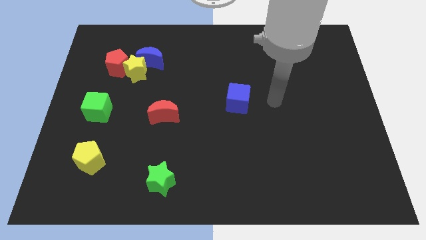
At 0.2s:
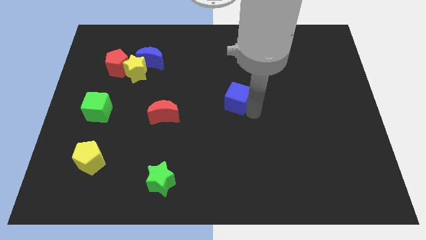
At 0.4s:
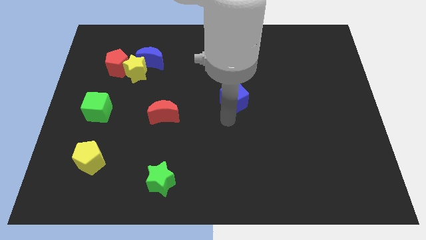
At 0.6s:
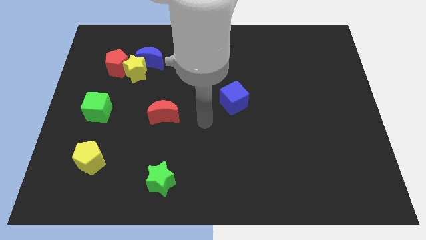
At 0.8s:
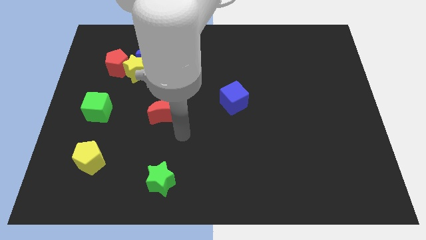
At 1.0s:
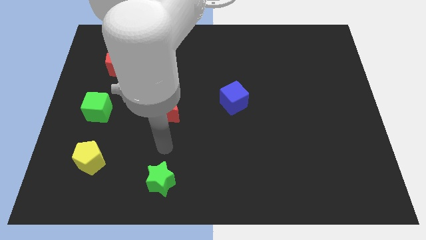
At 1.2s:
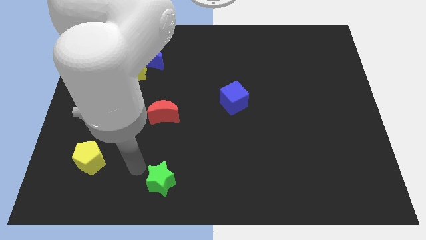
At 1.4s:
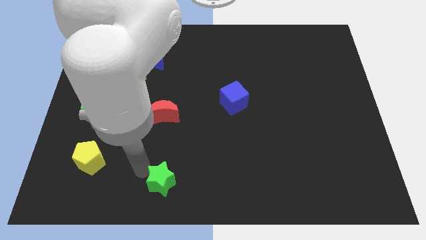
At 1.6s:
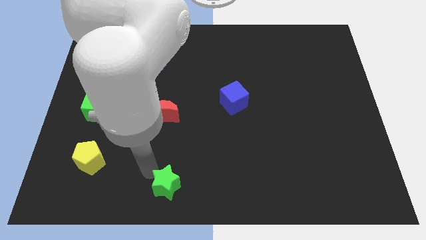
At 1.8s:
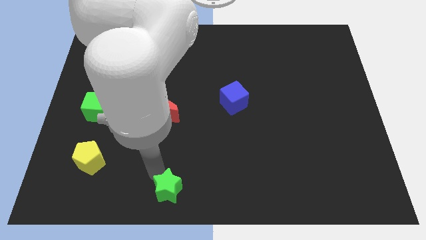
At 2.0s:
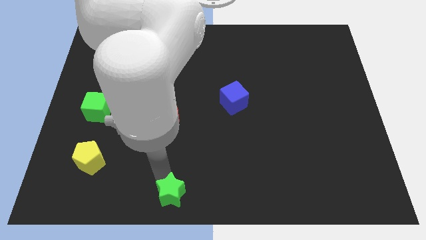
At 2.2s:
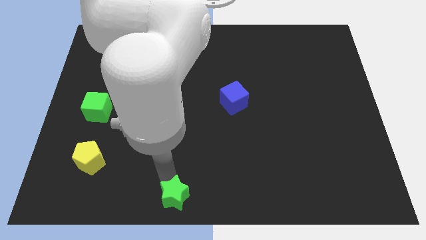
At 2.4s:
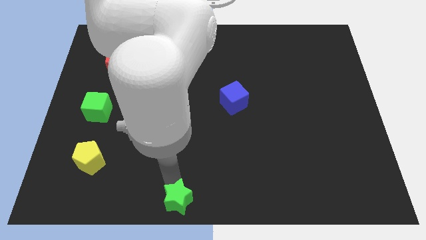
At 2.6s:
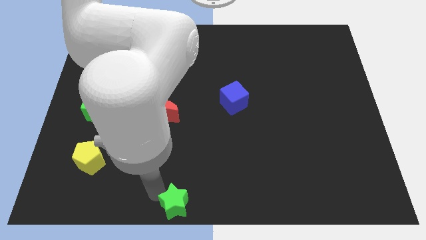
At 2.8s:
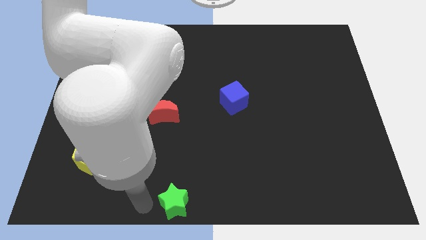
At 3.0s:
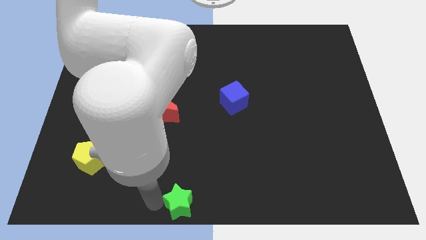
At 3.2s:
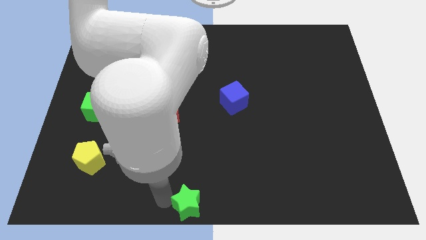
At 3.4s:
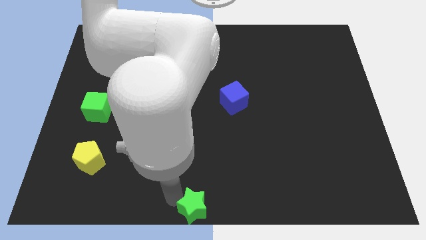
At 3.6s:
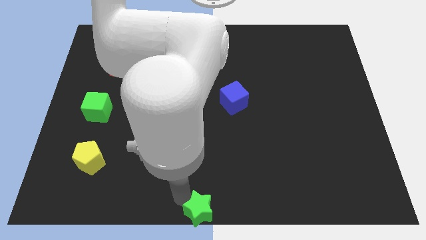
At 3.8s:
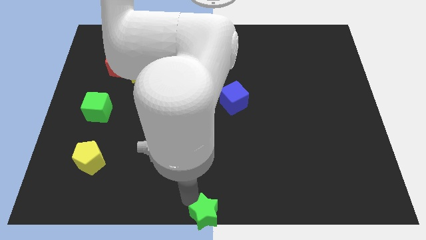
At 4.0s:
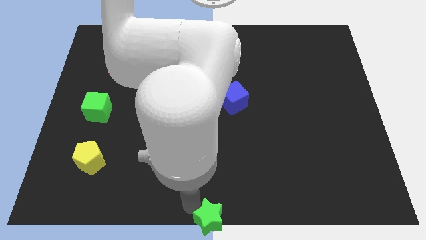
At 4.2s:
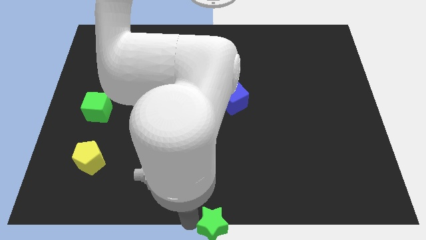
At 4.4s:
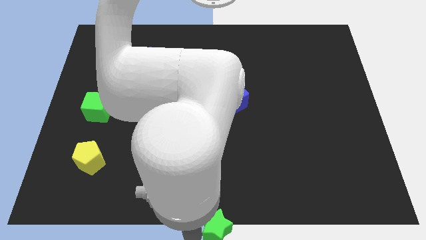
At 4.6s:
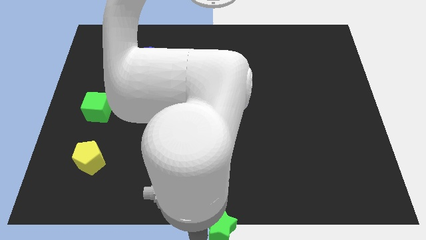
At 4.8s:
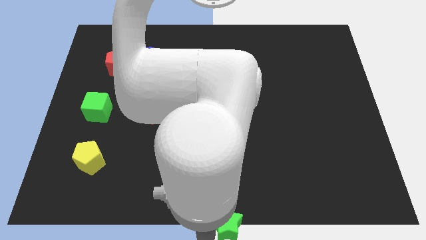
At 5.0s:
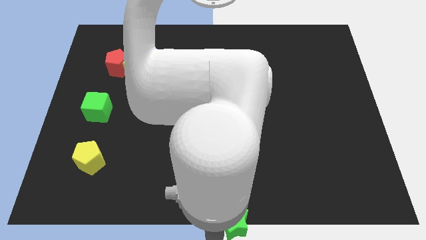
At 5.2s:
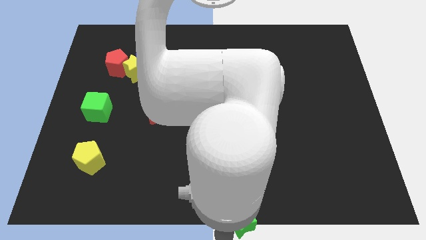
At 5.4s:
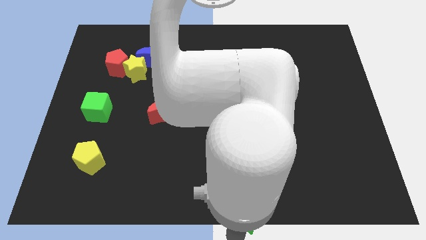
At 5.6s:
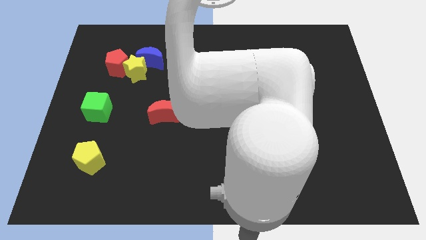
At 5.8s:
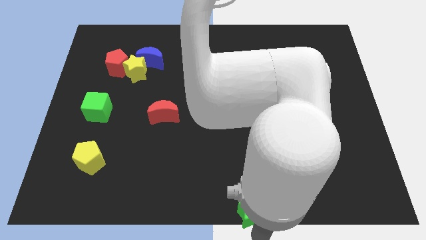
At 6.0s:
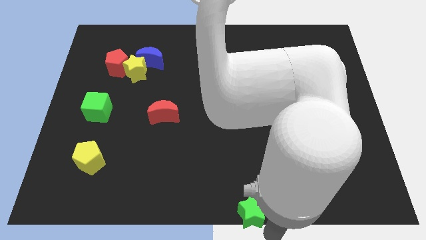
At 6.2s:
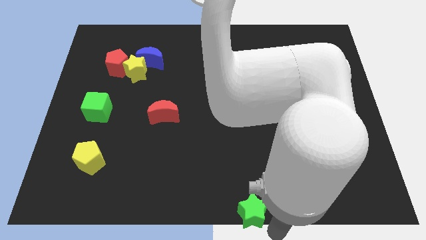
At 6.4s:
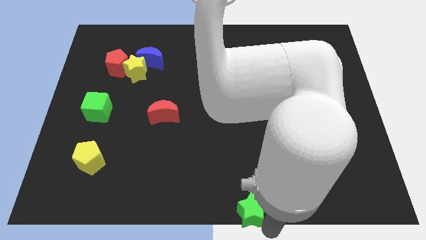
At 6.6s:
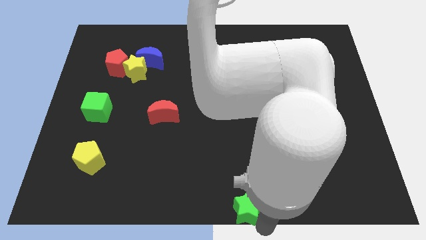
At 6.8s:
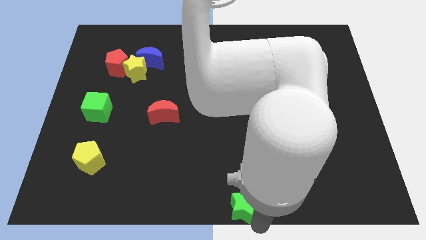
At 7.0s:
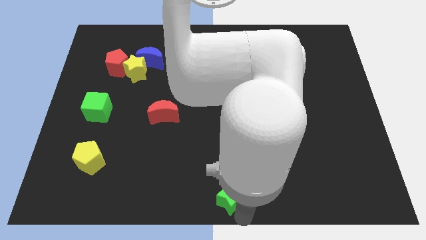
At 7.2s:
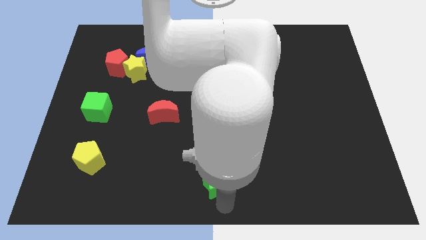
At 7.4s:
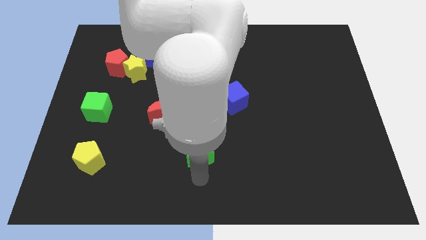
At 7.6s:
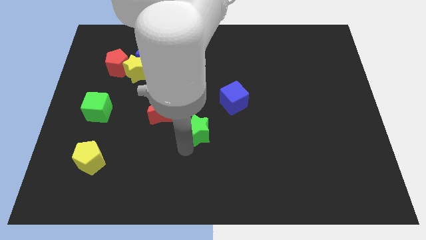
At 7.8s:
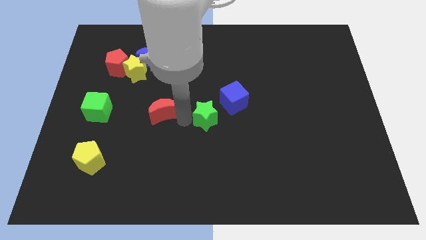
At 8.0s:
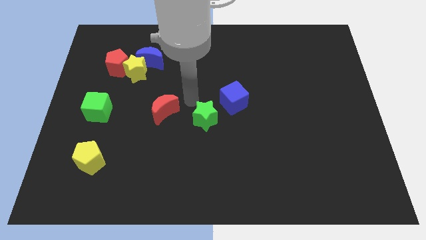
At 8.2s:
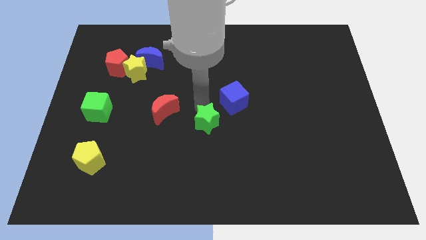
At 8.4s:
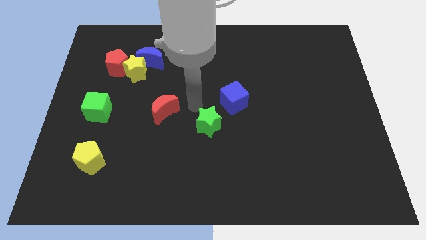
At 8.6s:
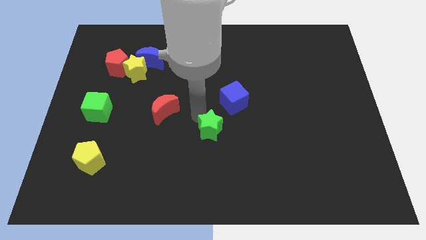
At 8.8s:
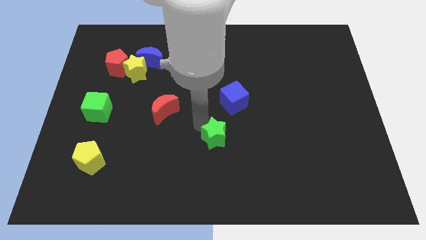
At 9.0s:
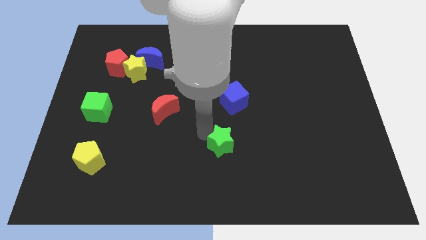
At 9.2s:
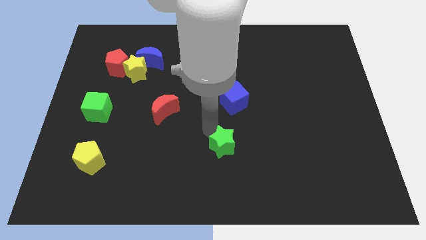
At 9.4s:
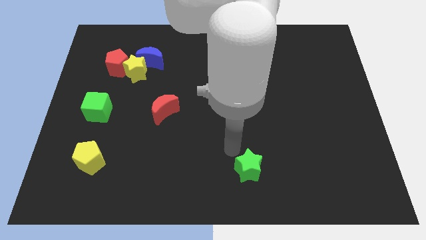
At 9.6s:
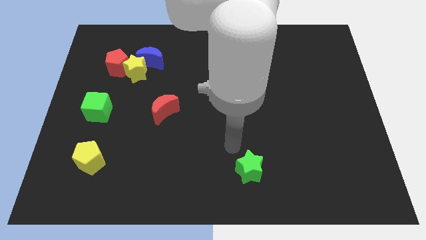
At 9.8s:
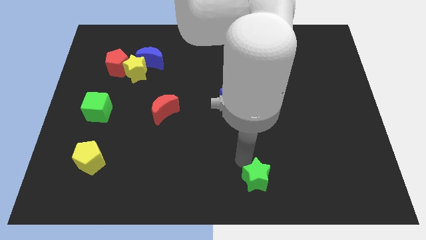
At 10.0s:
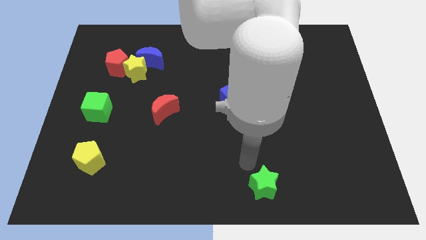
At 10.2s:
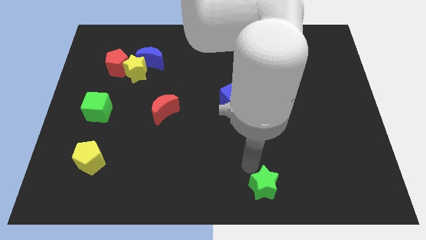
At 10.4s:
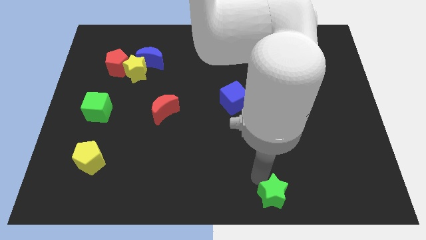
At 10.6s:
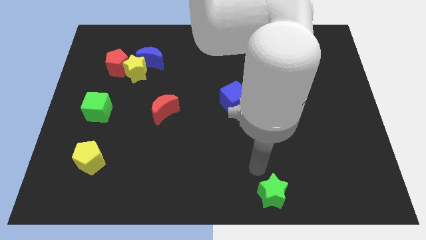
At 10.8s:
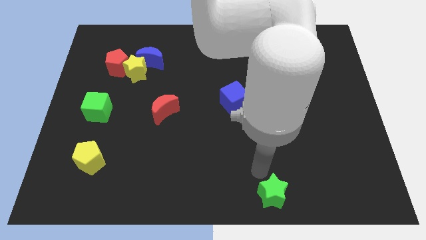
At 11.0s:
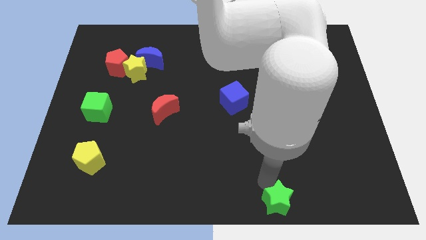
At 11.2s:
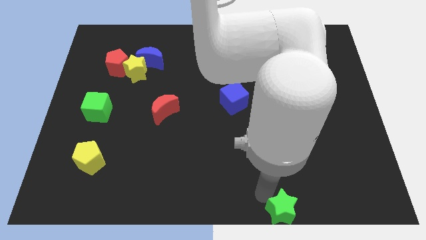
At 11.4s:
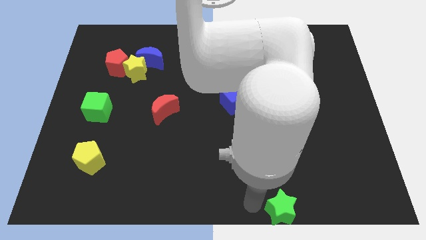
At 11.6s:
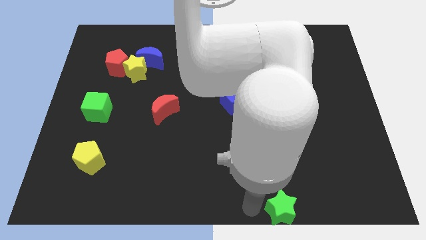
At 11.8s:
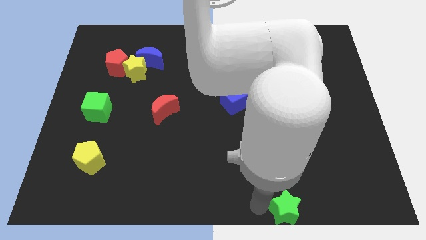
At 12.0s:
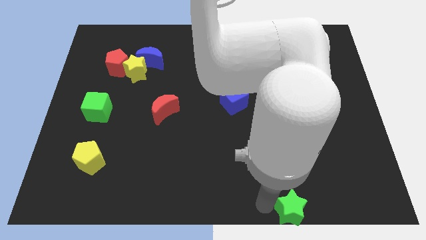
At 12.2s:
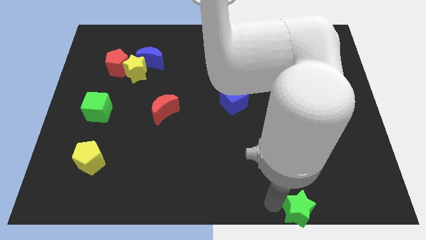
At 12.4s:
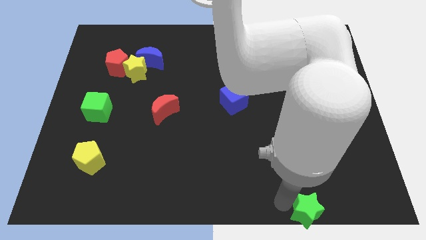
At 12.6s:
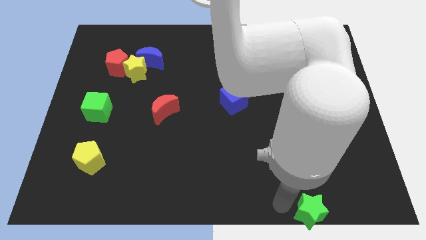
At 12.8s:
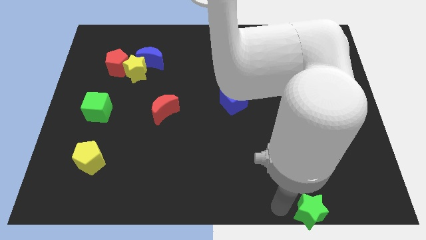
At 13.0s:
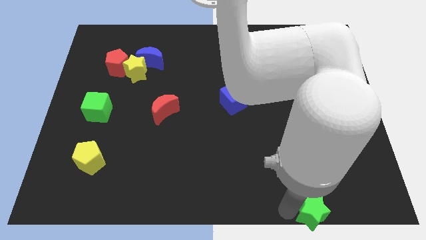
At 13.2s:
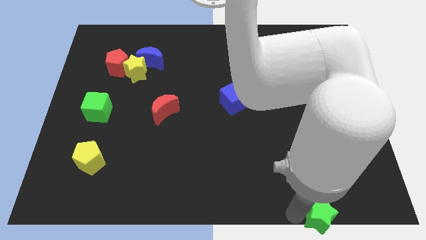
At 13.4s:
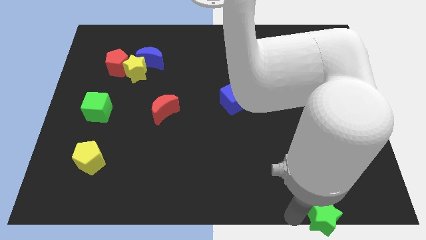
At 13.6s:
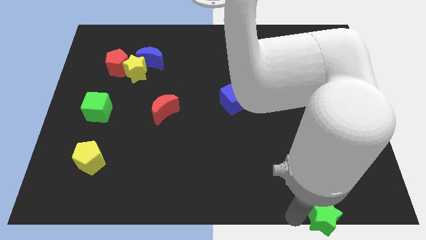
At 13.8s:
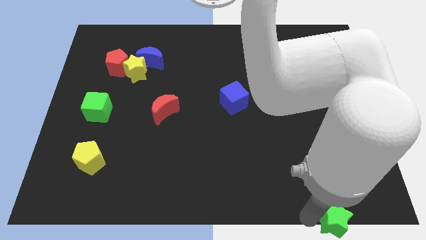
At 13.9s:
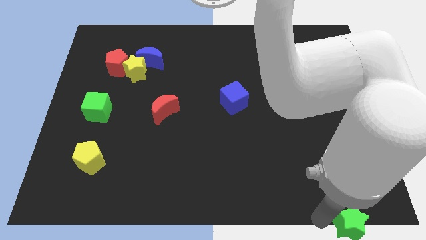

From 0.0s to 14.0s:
slide the green star to the bottom right

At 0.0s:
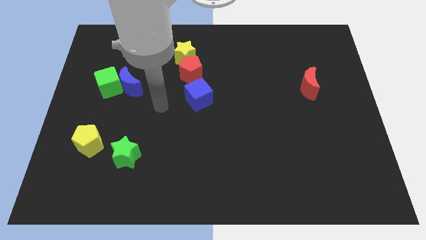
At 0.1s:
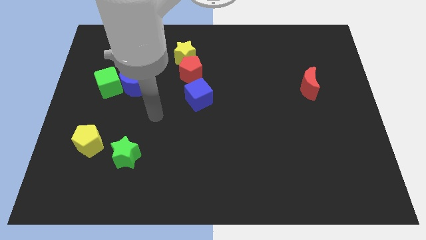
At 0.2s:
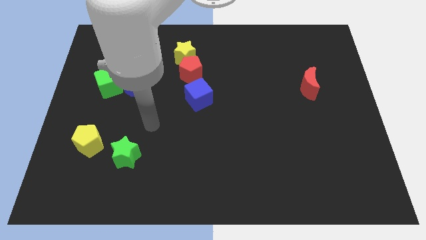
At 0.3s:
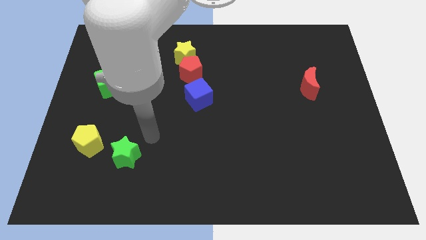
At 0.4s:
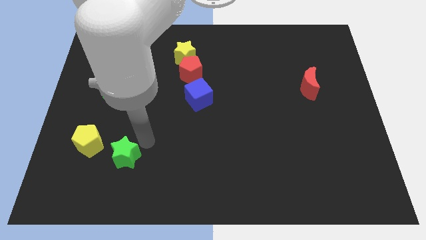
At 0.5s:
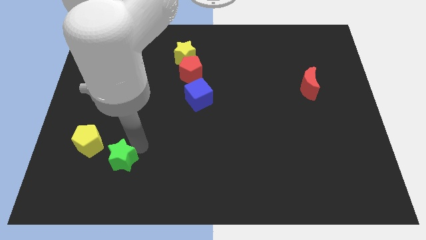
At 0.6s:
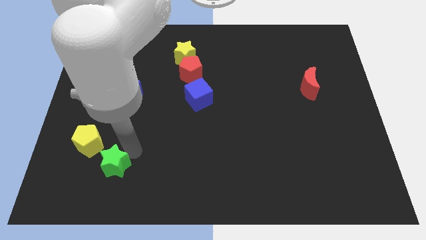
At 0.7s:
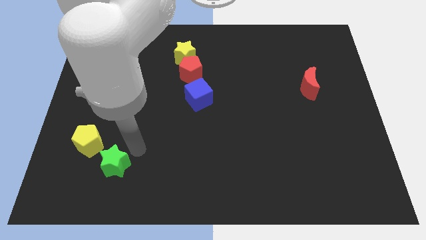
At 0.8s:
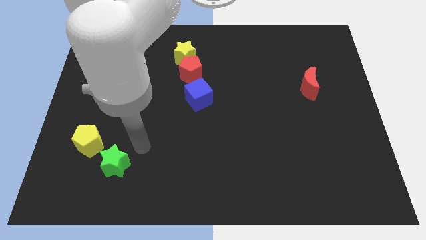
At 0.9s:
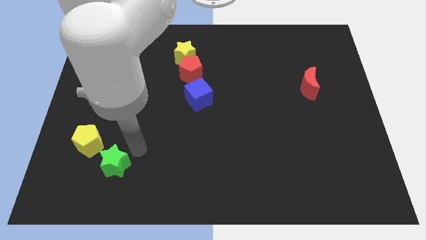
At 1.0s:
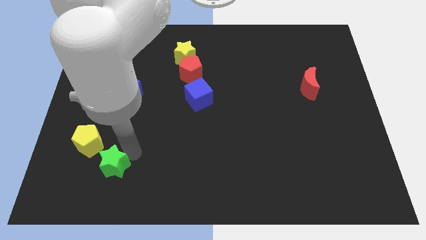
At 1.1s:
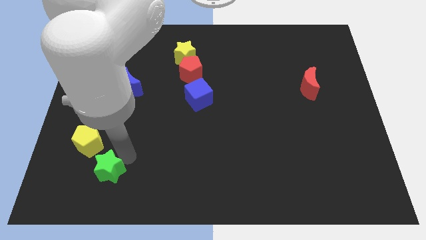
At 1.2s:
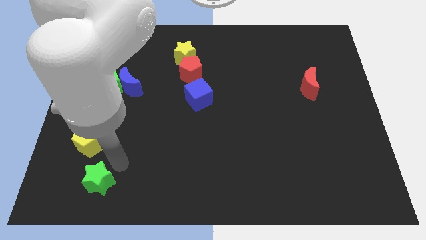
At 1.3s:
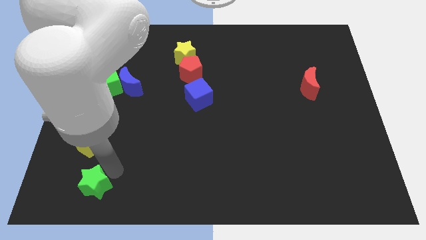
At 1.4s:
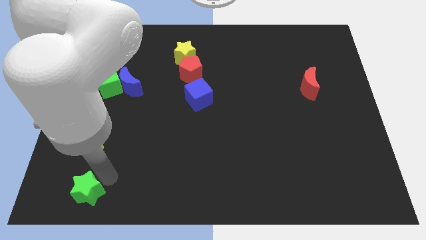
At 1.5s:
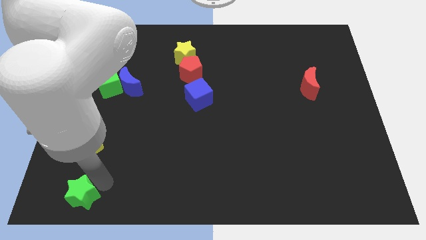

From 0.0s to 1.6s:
move the green star to the bottom left corner
